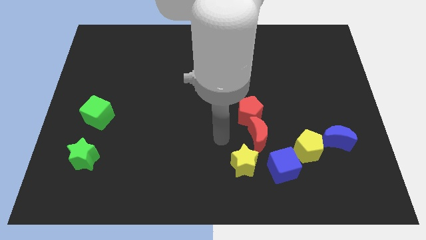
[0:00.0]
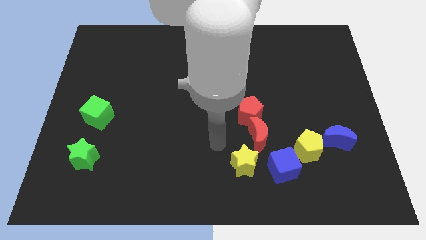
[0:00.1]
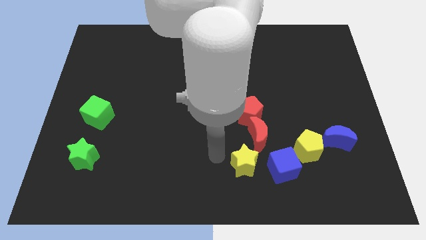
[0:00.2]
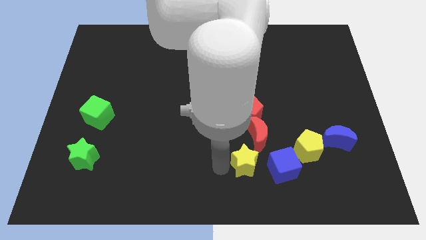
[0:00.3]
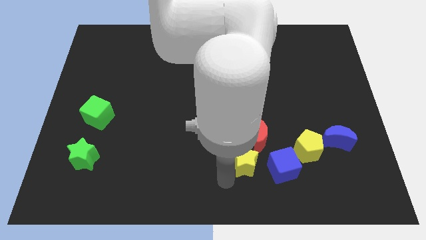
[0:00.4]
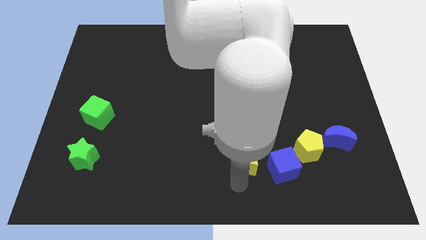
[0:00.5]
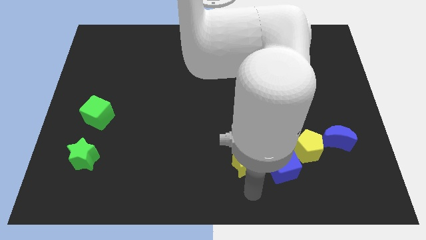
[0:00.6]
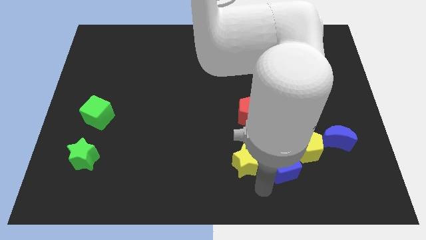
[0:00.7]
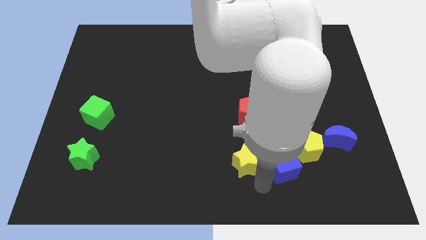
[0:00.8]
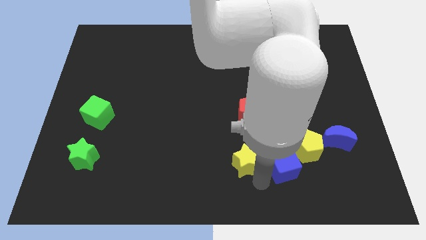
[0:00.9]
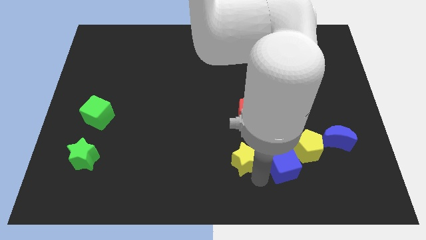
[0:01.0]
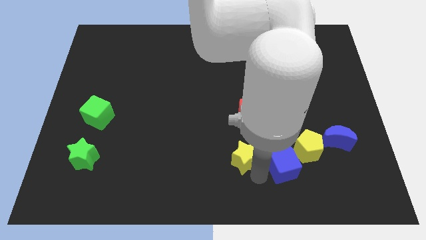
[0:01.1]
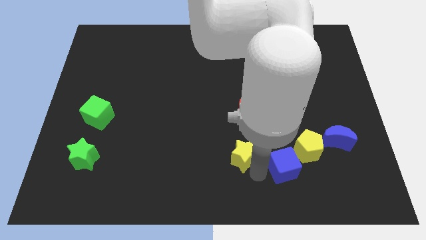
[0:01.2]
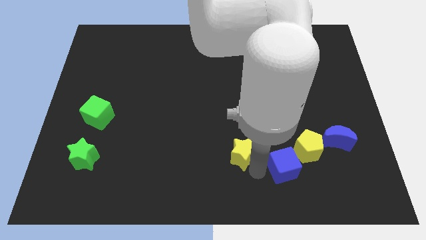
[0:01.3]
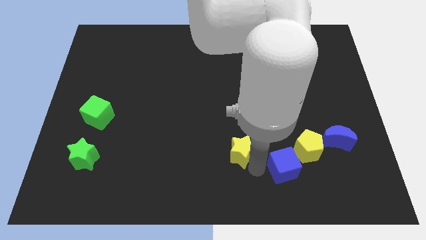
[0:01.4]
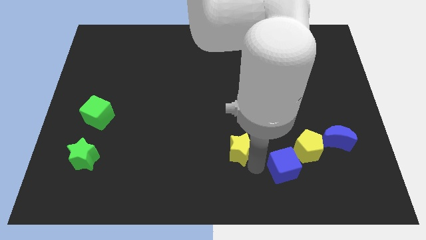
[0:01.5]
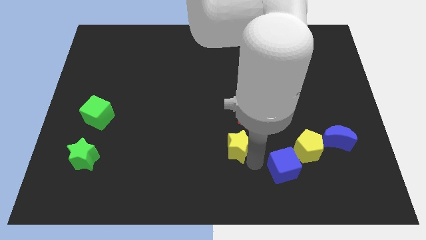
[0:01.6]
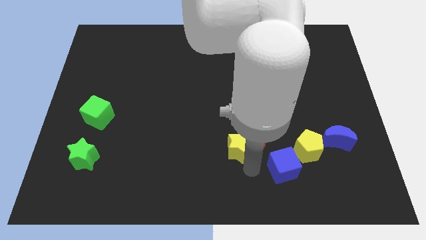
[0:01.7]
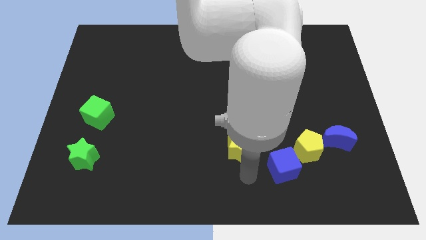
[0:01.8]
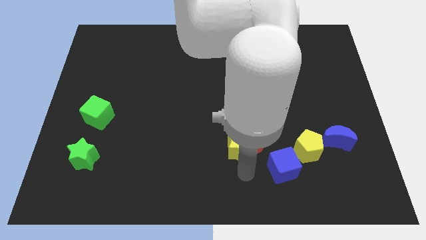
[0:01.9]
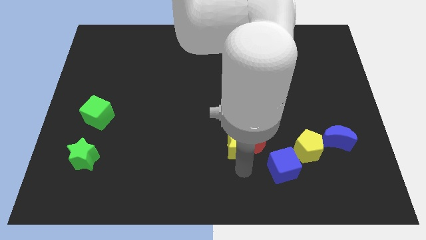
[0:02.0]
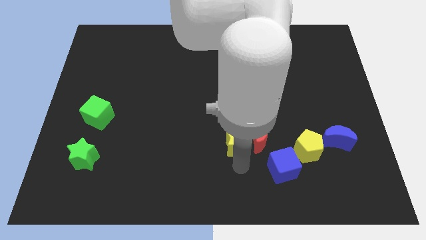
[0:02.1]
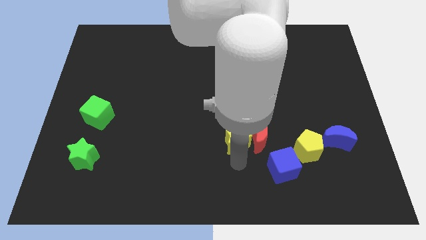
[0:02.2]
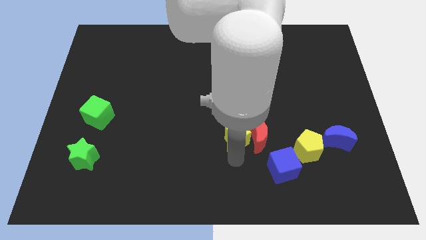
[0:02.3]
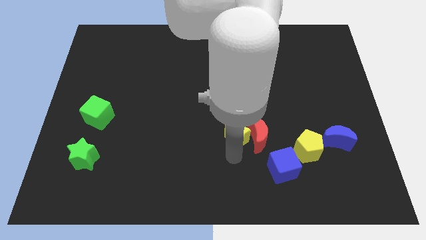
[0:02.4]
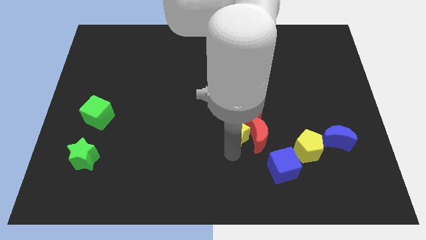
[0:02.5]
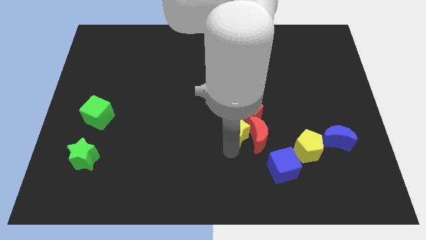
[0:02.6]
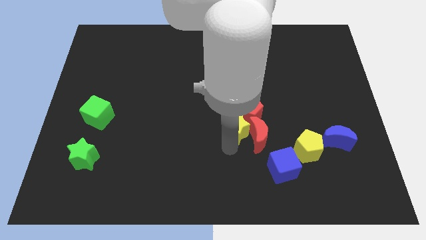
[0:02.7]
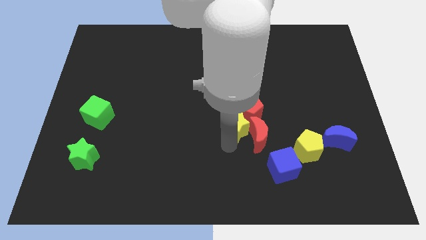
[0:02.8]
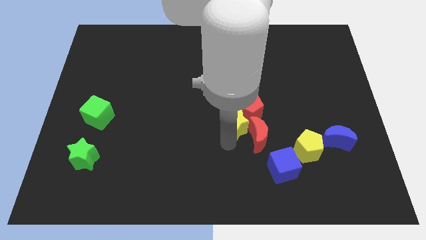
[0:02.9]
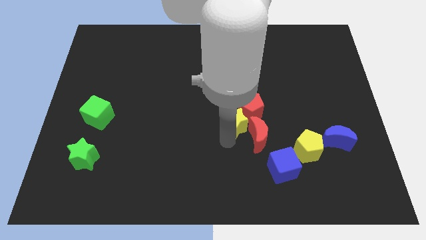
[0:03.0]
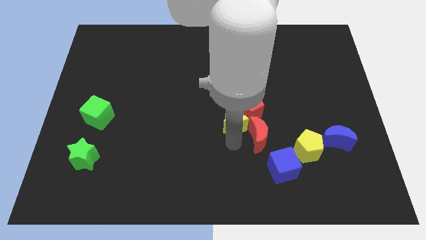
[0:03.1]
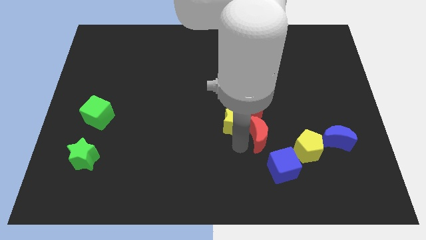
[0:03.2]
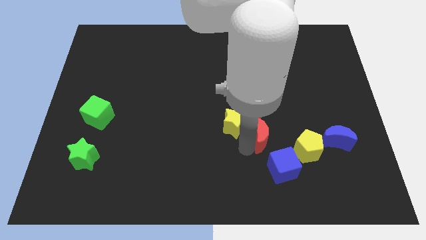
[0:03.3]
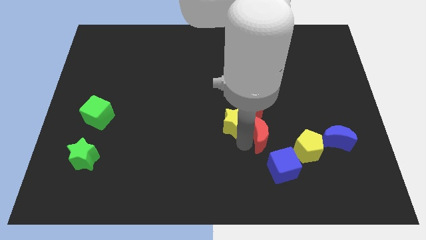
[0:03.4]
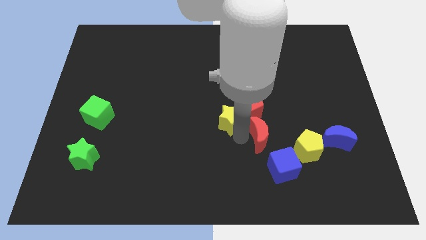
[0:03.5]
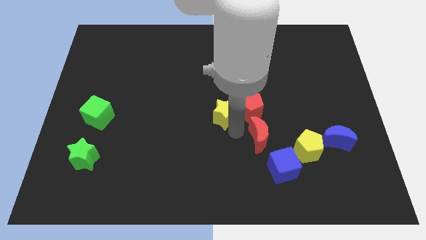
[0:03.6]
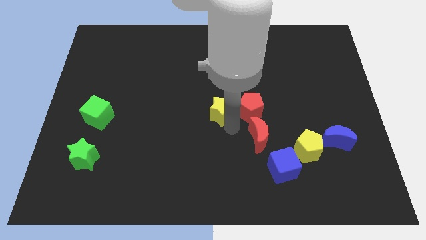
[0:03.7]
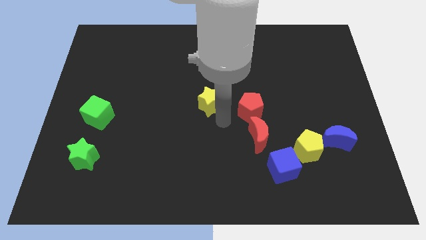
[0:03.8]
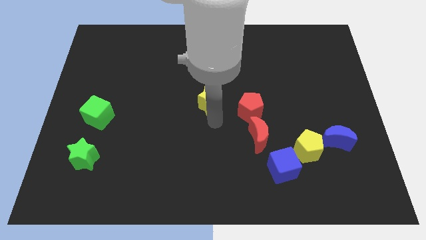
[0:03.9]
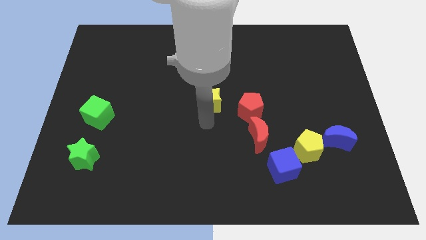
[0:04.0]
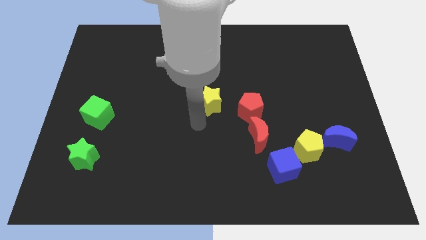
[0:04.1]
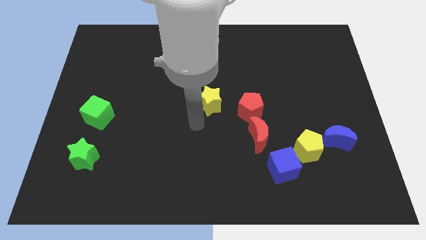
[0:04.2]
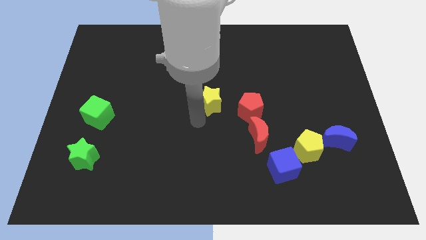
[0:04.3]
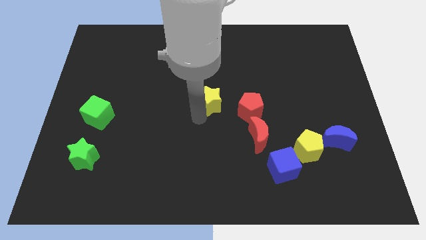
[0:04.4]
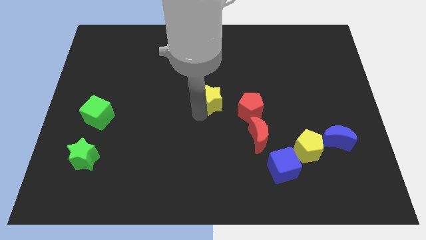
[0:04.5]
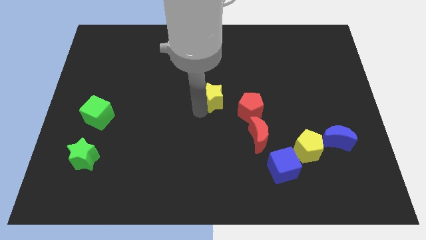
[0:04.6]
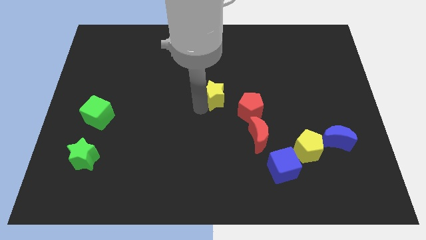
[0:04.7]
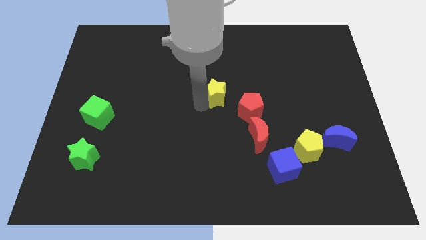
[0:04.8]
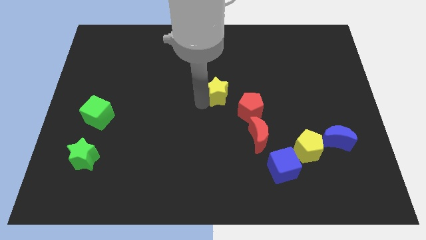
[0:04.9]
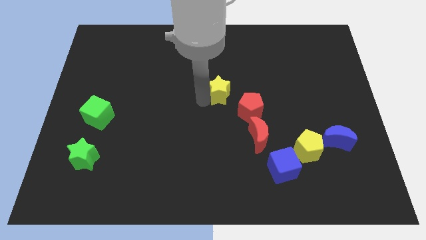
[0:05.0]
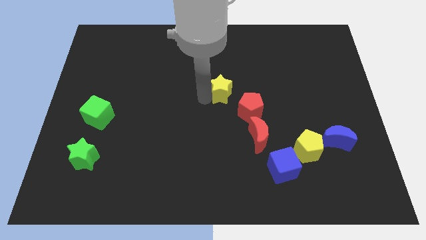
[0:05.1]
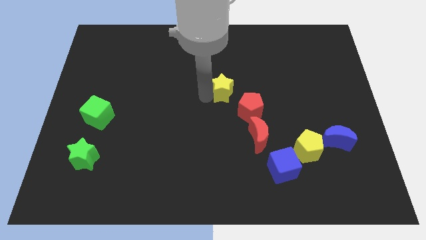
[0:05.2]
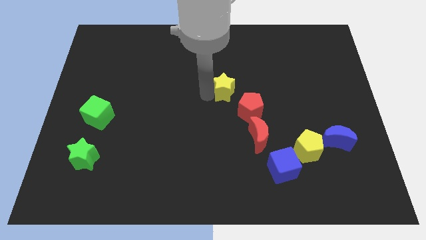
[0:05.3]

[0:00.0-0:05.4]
move the yellow star upwards

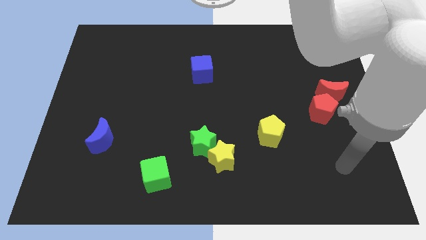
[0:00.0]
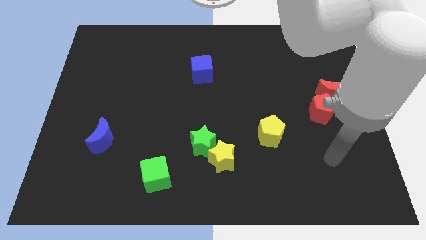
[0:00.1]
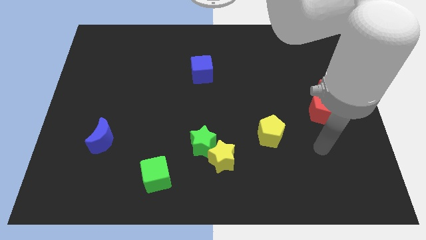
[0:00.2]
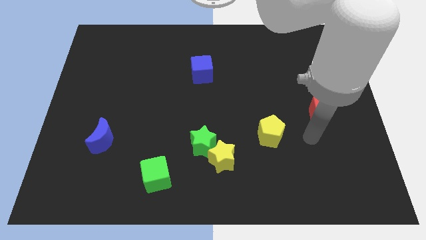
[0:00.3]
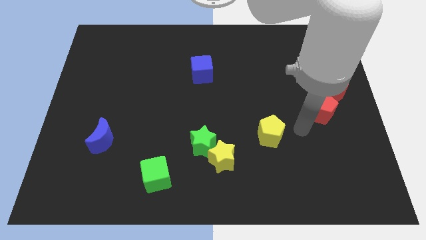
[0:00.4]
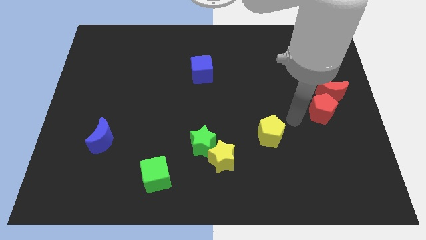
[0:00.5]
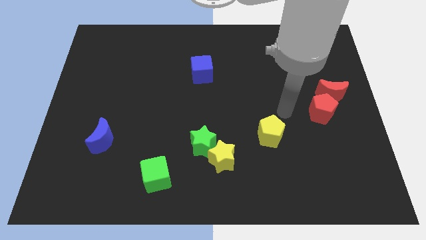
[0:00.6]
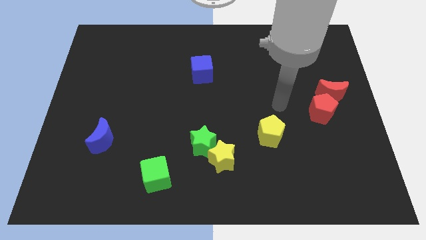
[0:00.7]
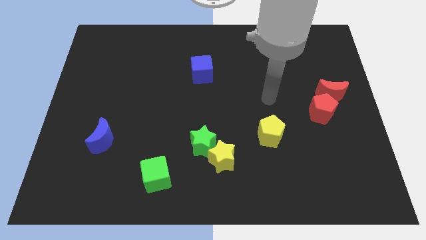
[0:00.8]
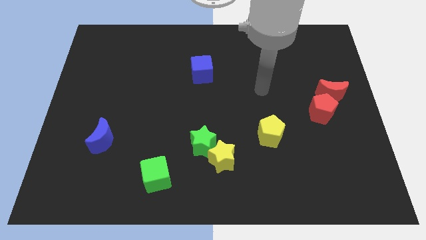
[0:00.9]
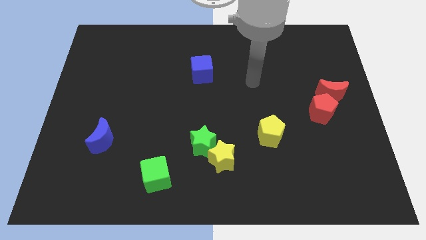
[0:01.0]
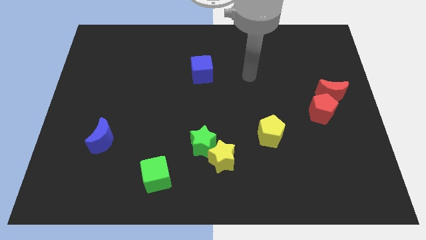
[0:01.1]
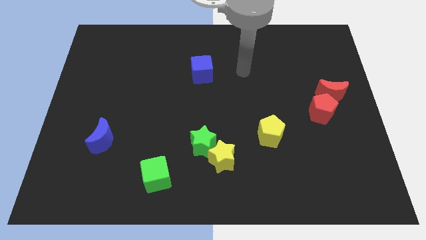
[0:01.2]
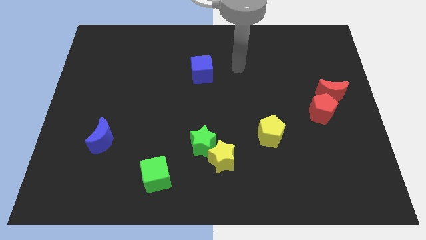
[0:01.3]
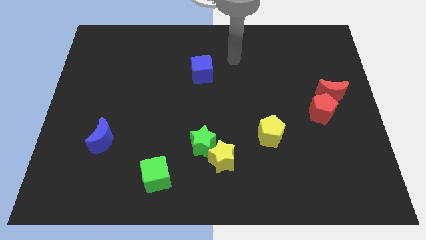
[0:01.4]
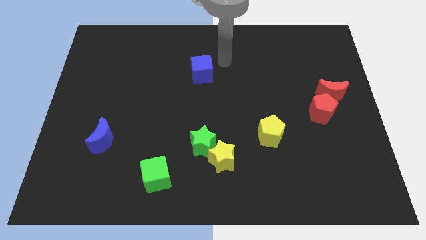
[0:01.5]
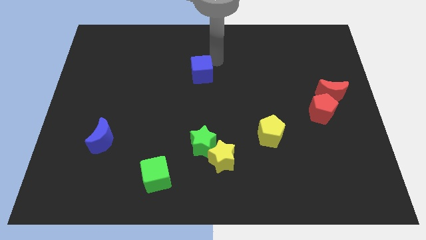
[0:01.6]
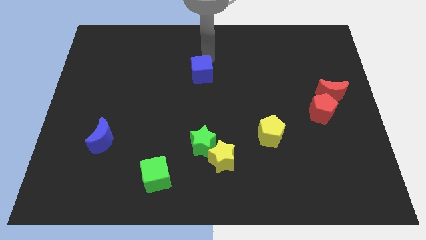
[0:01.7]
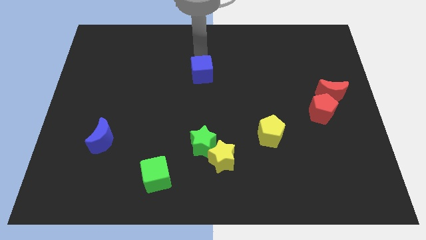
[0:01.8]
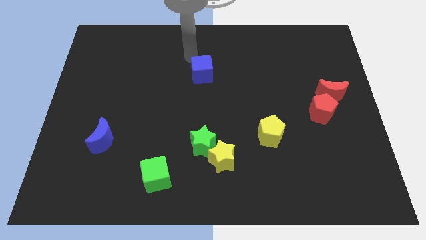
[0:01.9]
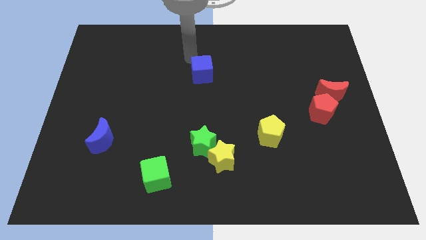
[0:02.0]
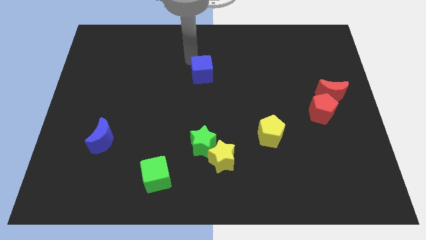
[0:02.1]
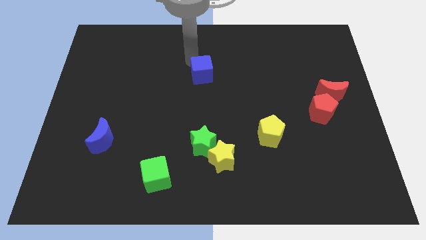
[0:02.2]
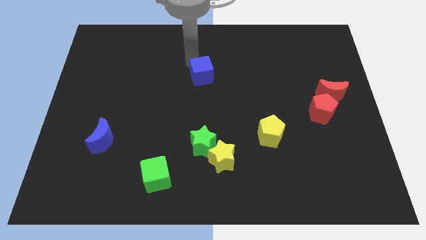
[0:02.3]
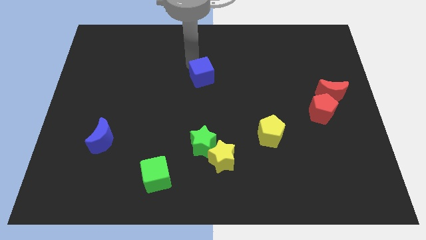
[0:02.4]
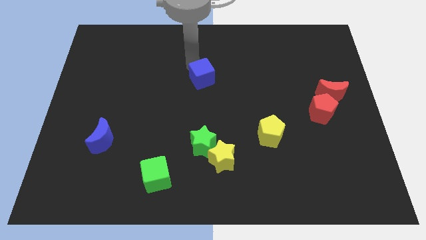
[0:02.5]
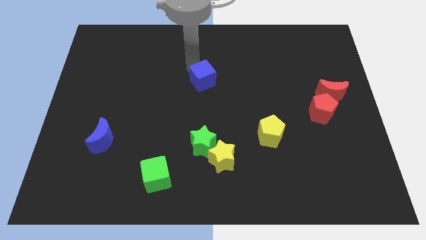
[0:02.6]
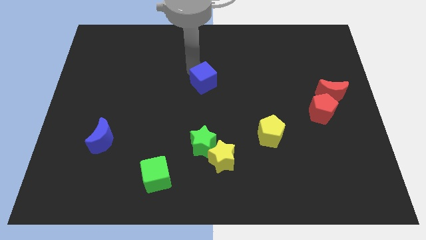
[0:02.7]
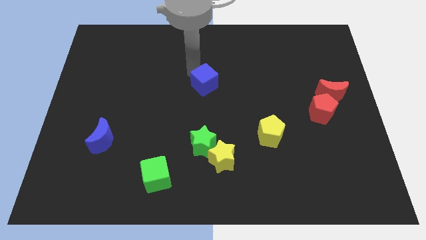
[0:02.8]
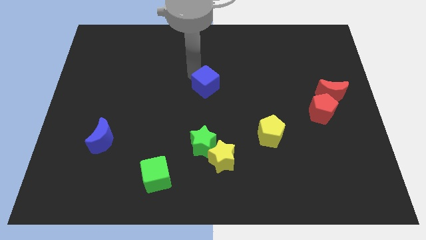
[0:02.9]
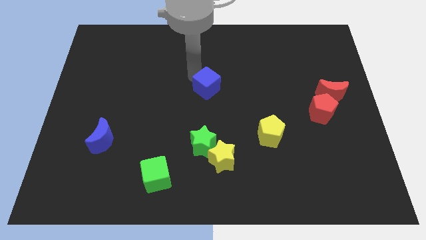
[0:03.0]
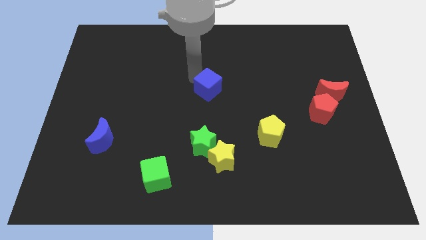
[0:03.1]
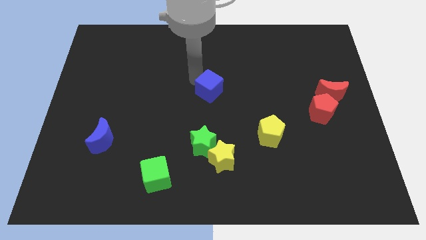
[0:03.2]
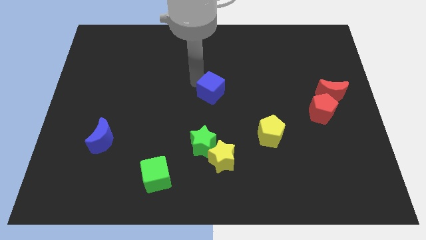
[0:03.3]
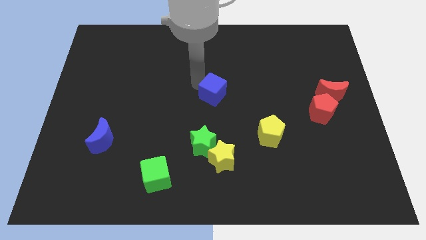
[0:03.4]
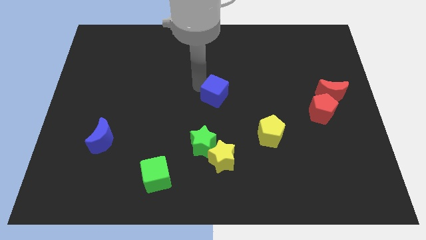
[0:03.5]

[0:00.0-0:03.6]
slide the blue cube downwards and to the right slightly
